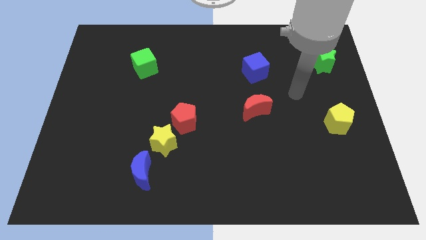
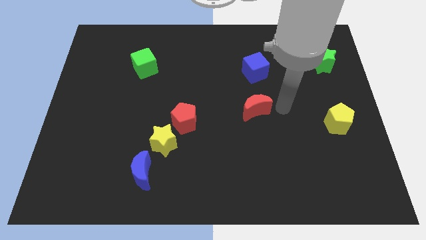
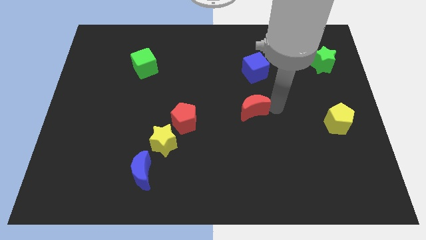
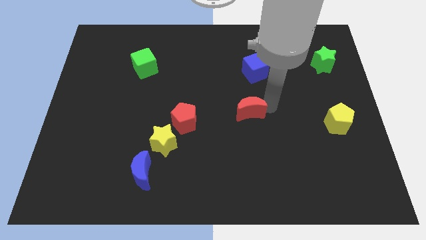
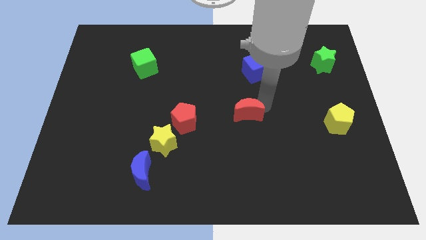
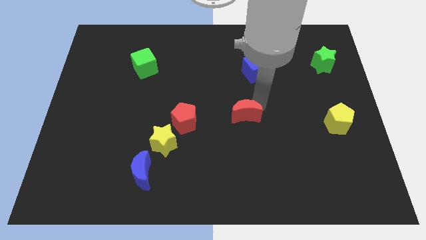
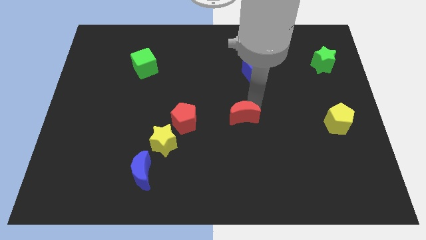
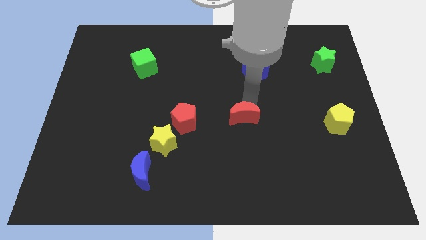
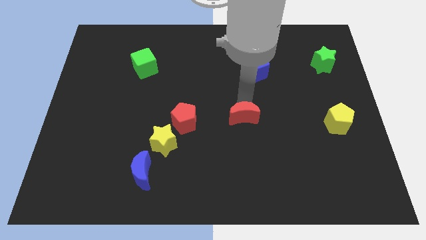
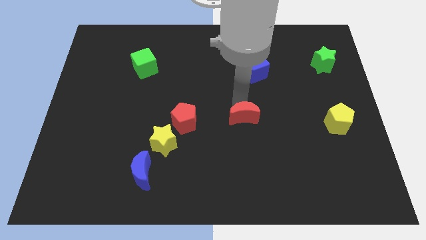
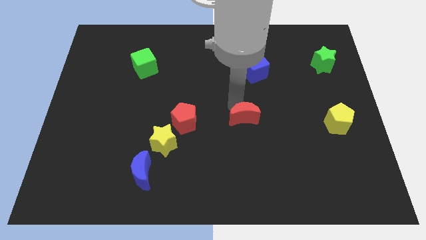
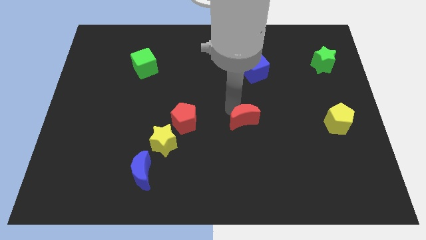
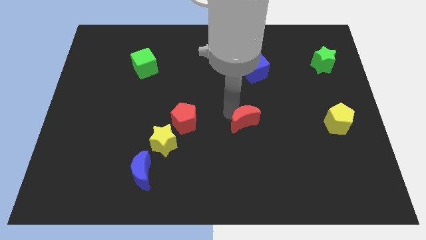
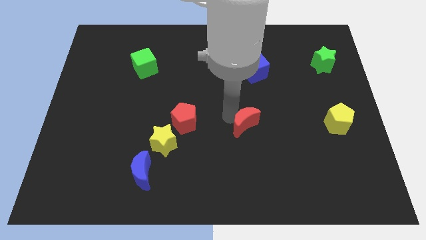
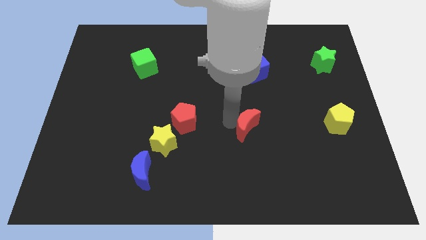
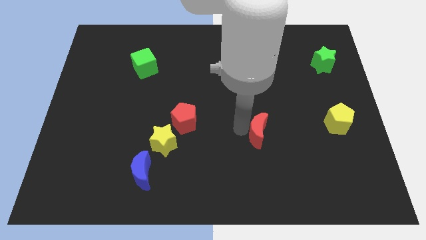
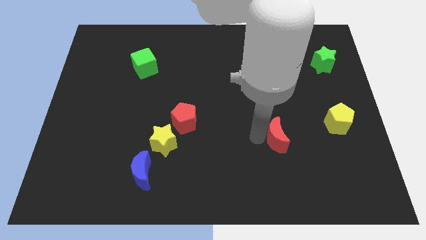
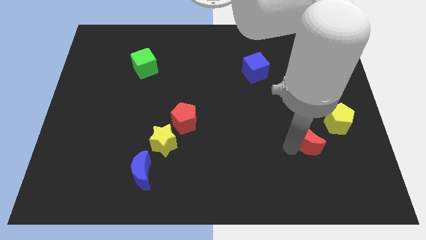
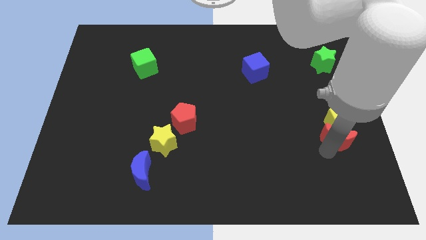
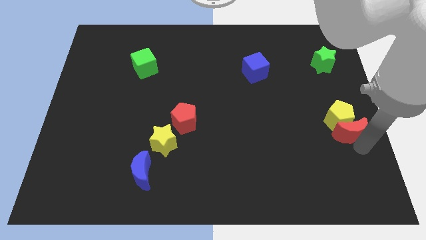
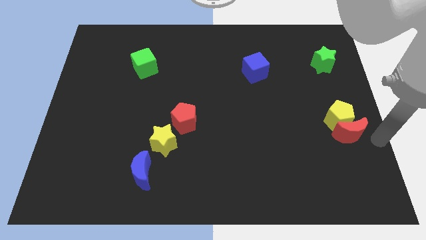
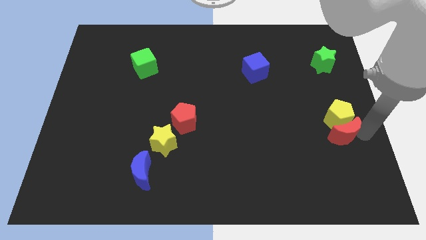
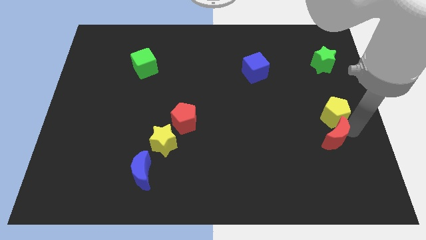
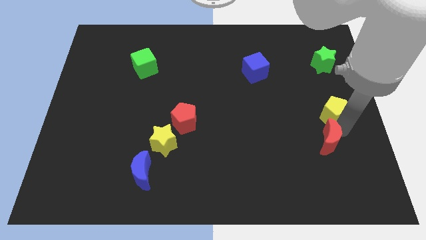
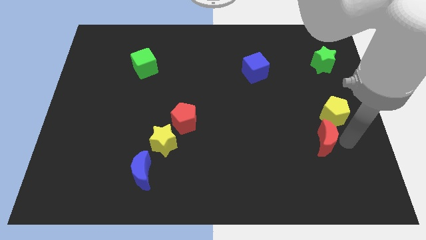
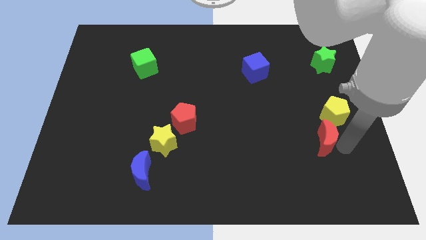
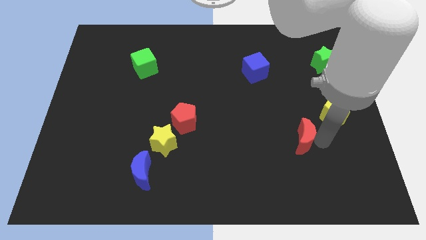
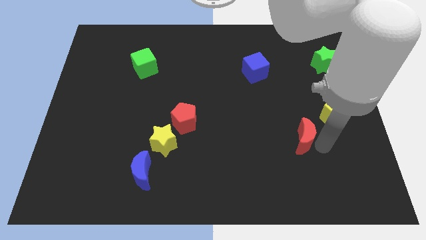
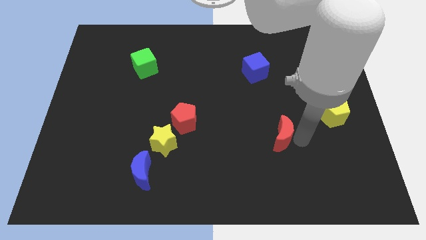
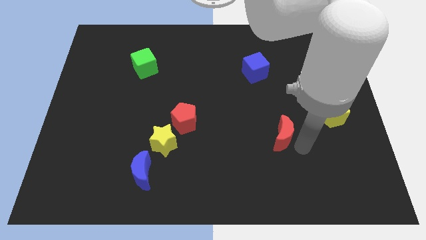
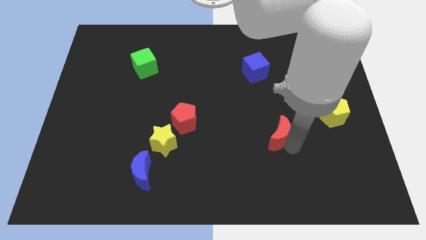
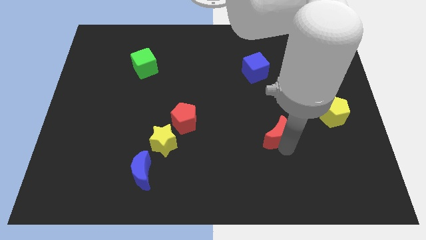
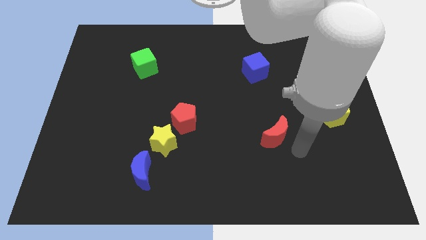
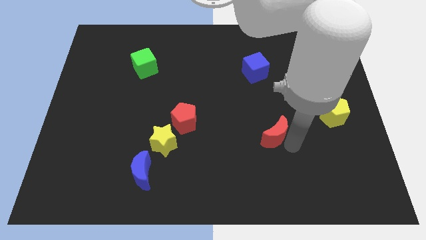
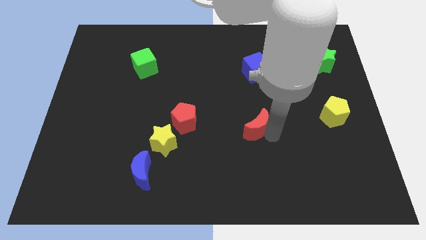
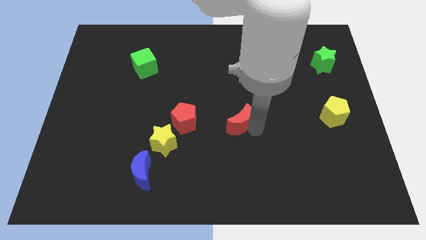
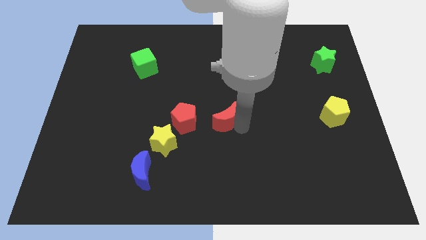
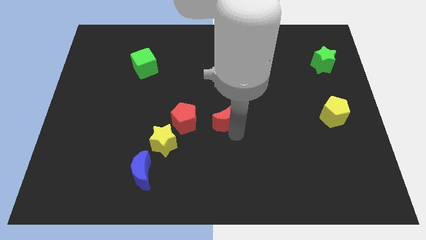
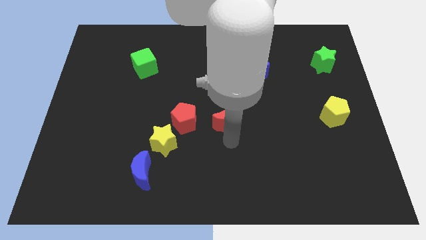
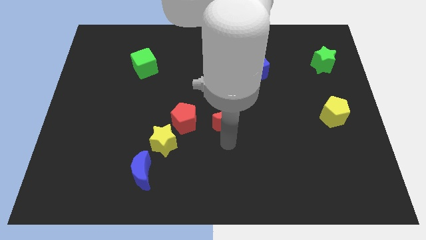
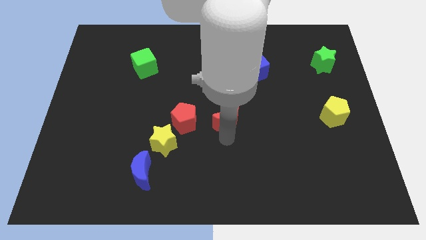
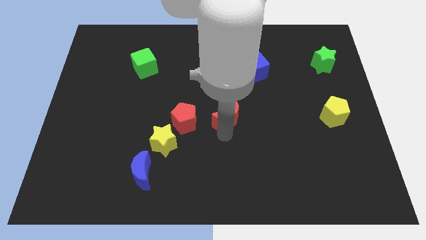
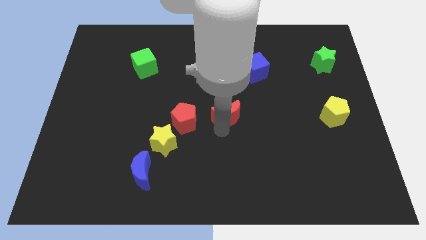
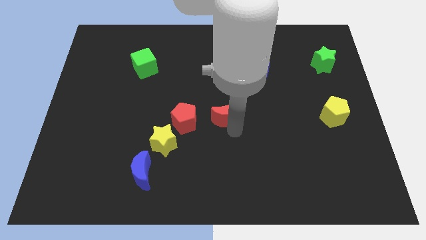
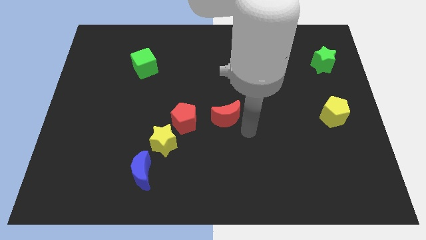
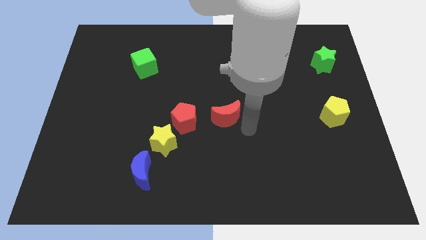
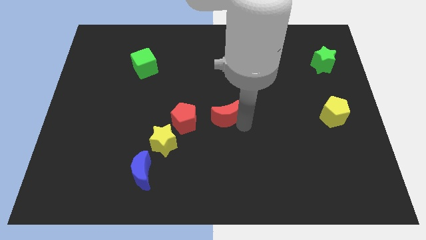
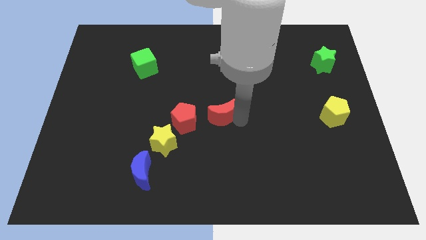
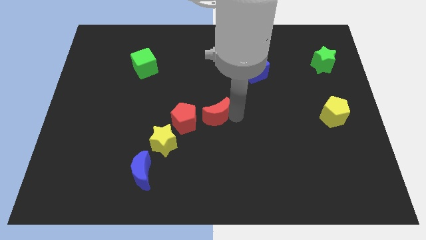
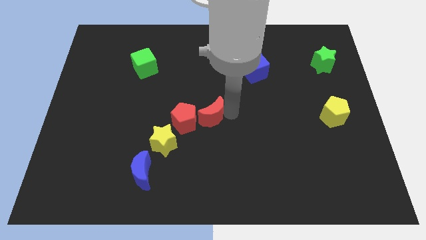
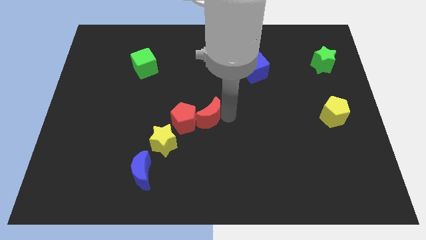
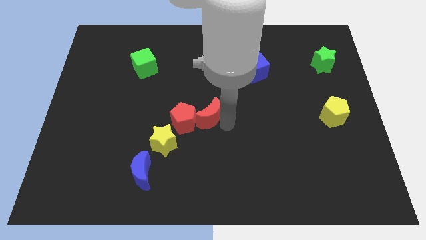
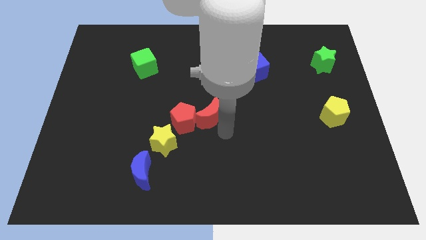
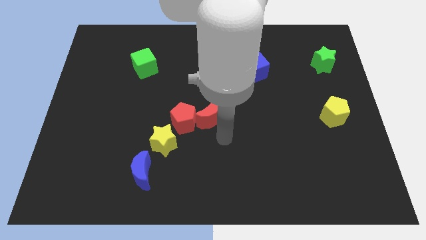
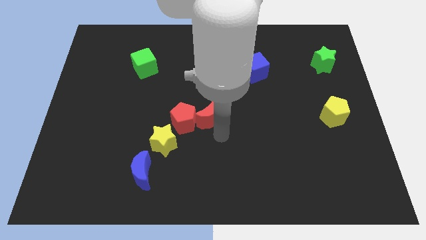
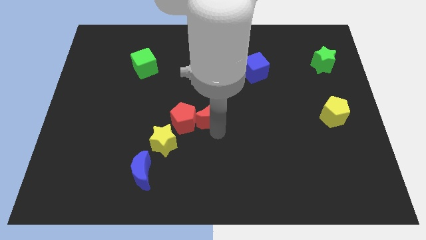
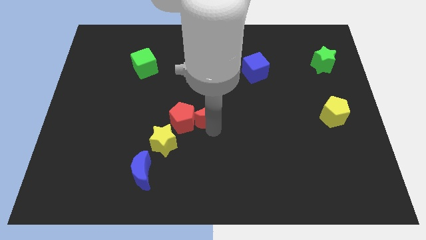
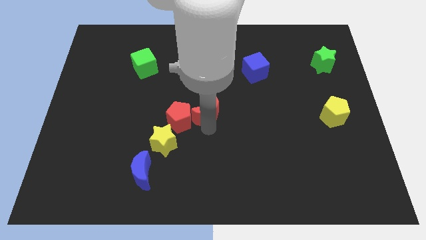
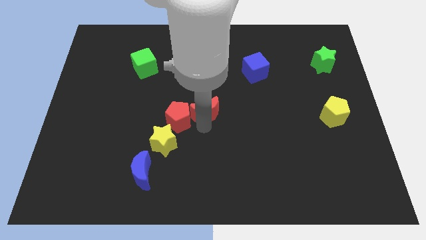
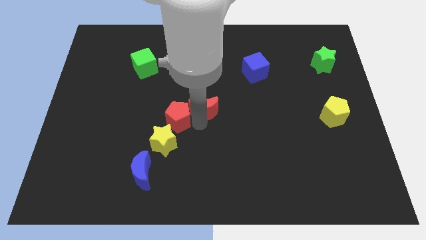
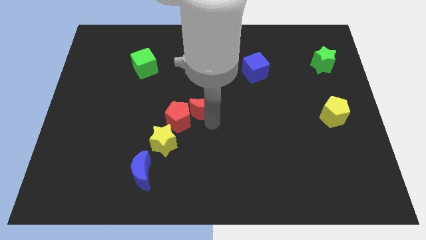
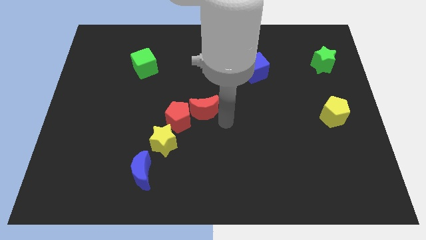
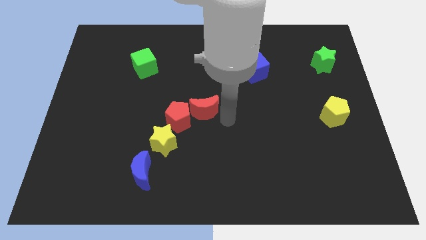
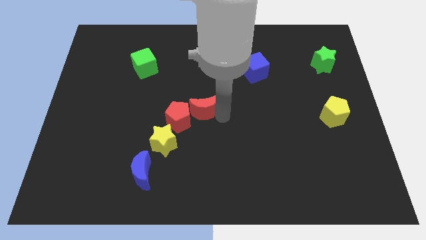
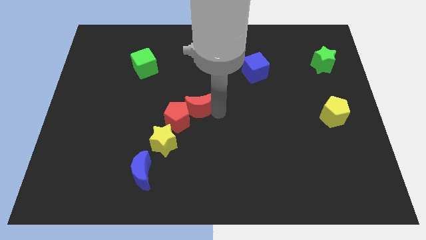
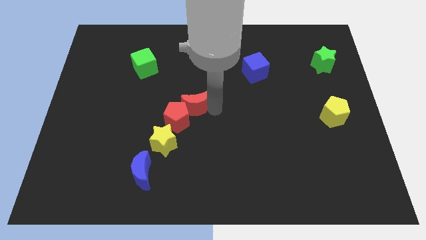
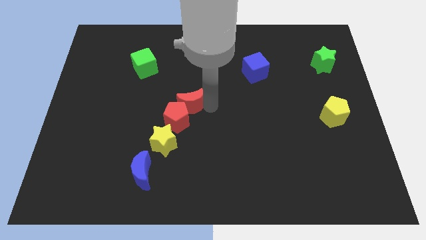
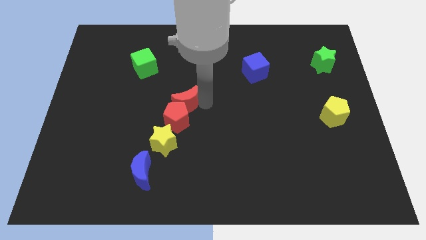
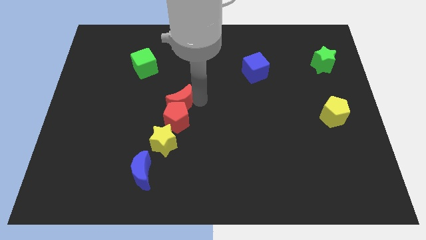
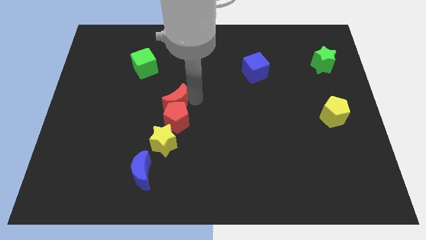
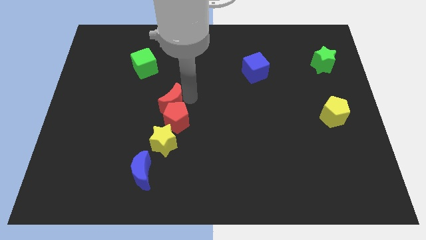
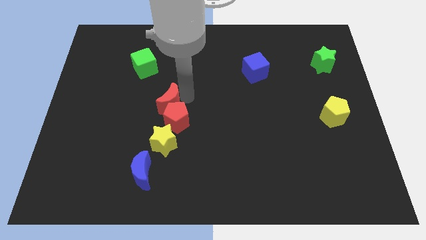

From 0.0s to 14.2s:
move the red moon to the left

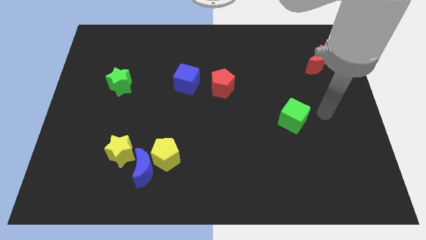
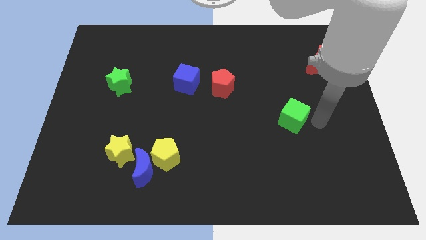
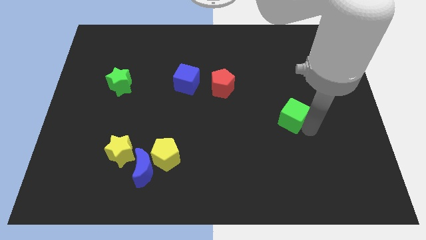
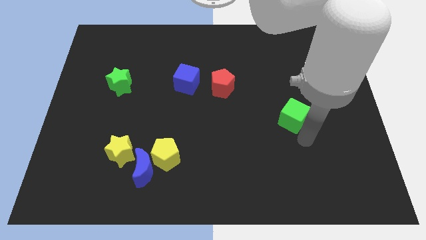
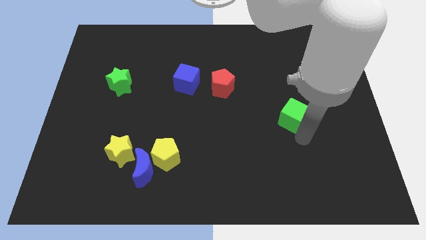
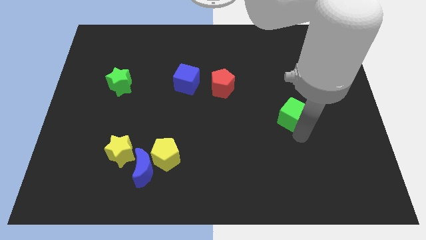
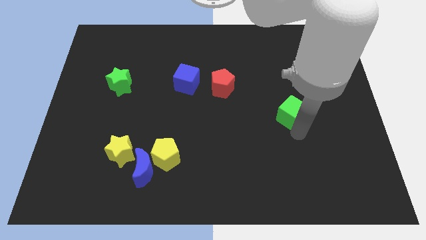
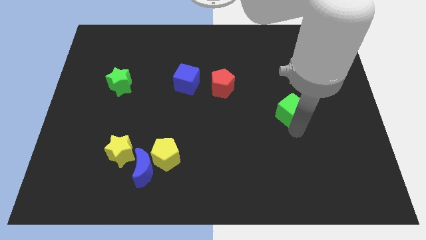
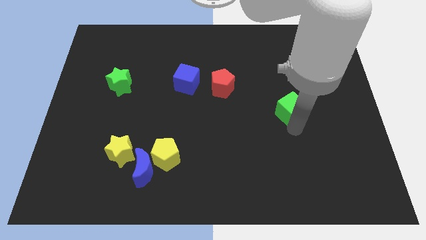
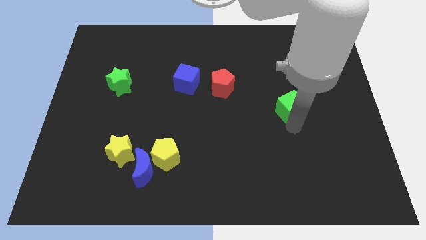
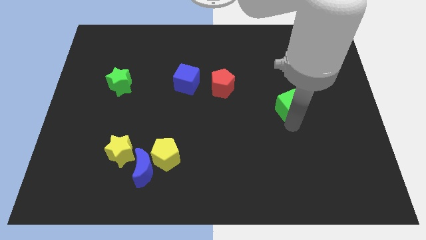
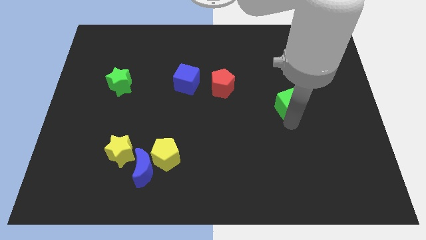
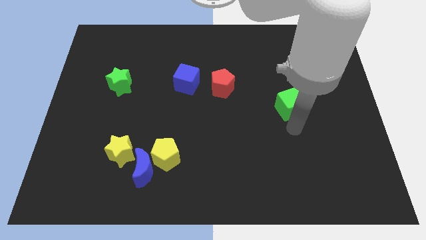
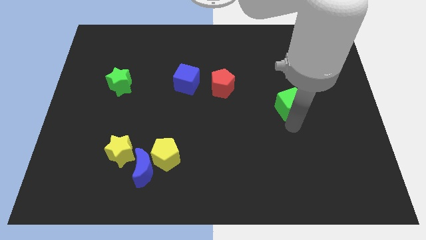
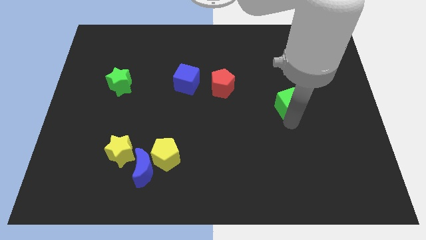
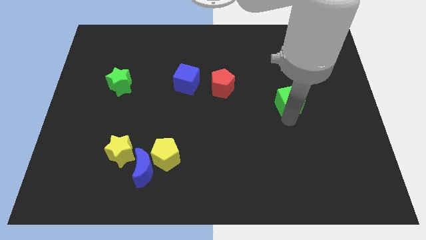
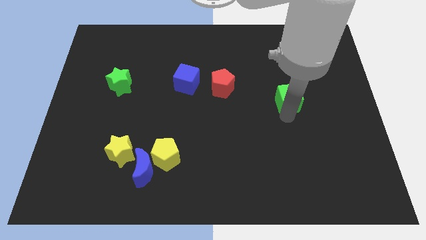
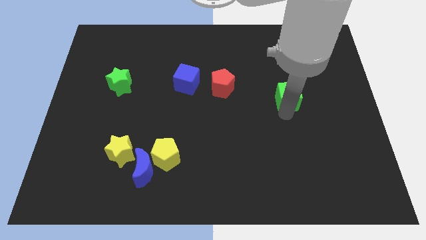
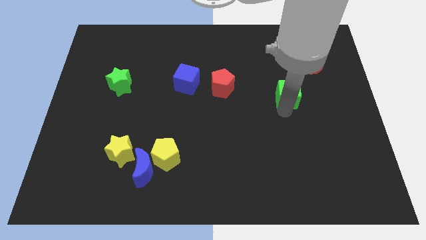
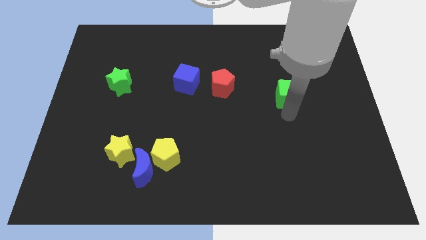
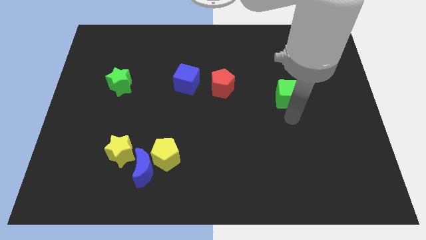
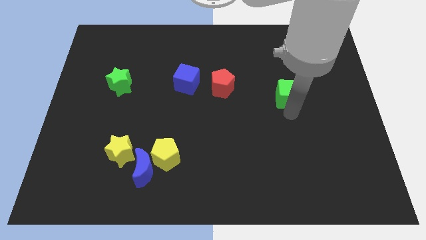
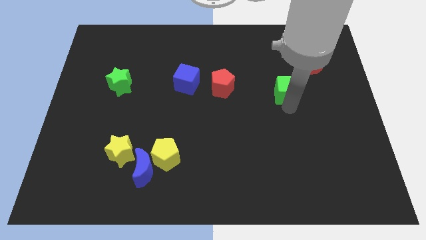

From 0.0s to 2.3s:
push the green cube up a little bit
